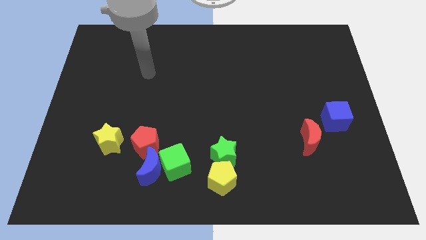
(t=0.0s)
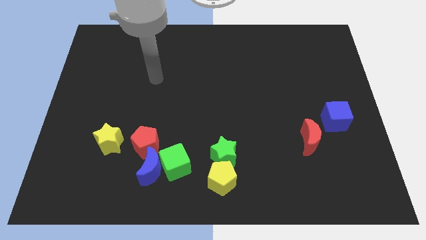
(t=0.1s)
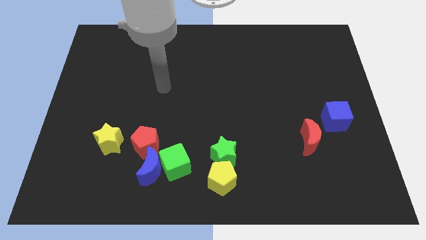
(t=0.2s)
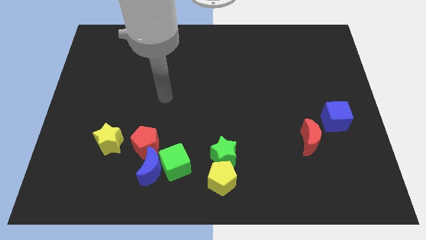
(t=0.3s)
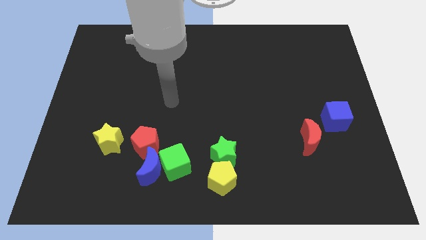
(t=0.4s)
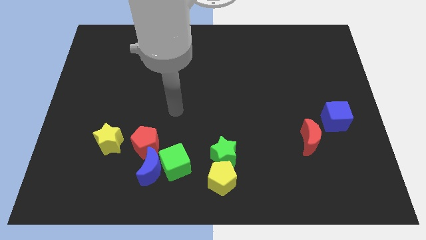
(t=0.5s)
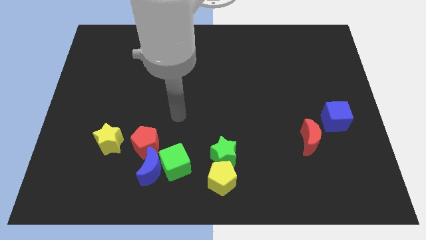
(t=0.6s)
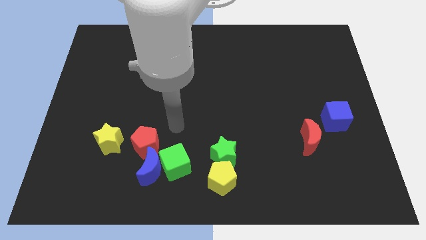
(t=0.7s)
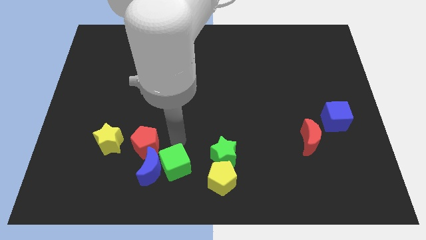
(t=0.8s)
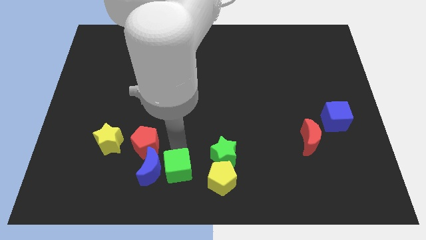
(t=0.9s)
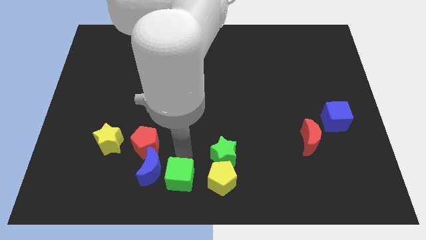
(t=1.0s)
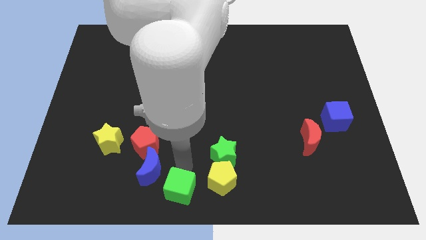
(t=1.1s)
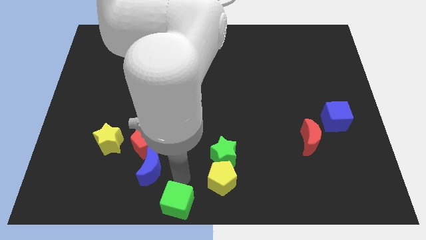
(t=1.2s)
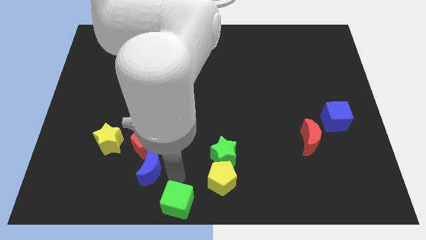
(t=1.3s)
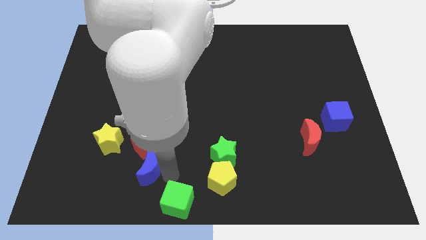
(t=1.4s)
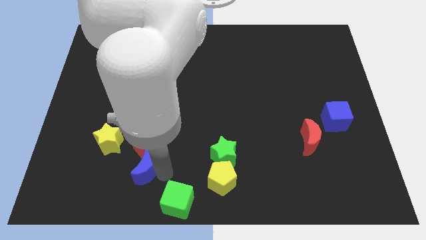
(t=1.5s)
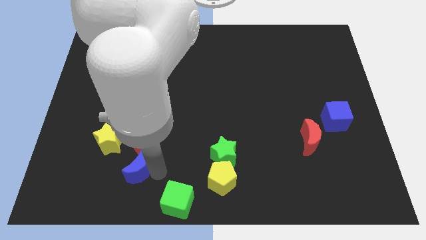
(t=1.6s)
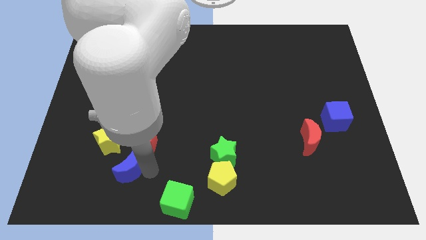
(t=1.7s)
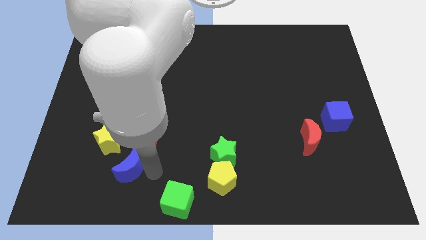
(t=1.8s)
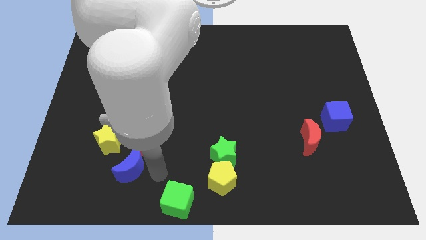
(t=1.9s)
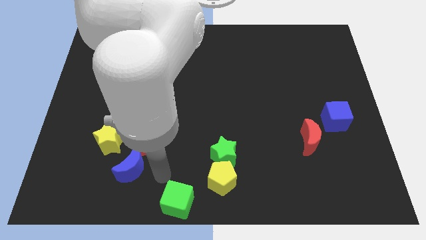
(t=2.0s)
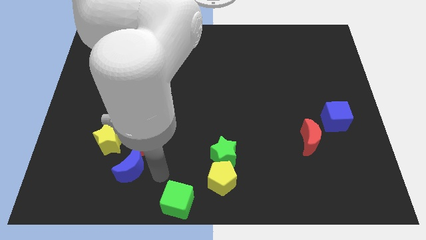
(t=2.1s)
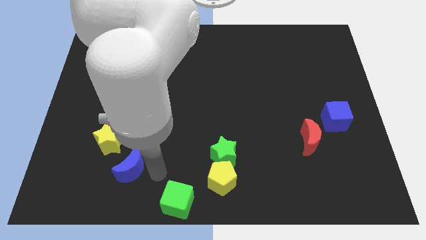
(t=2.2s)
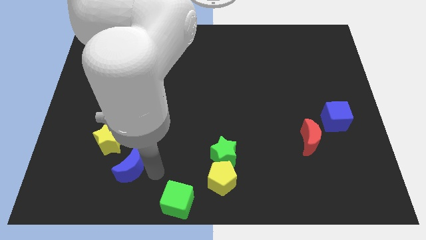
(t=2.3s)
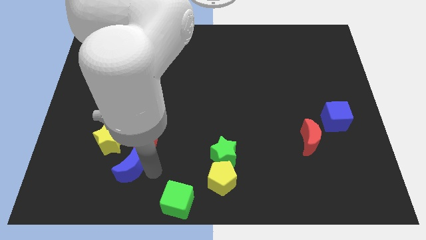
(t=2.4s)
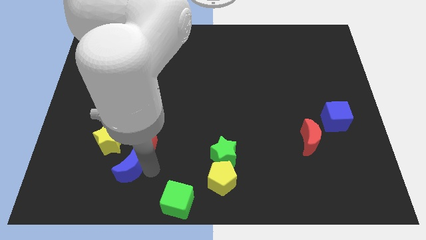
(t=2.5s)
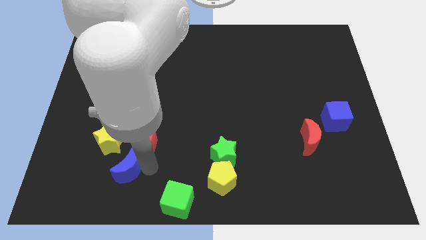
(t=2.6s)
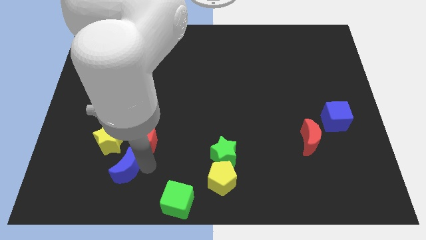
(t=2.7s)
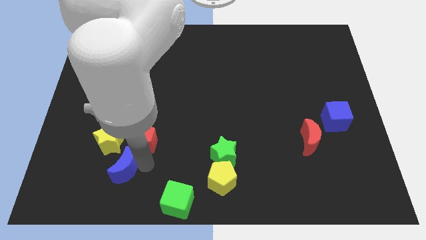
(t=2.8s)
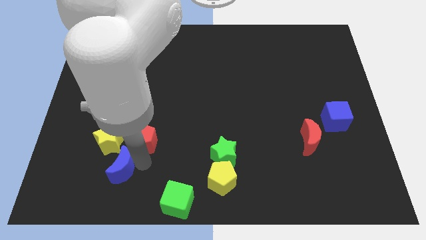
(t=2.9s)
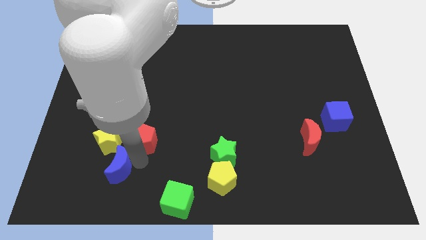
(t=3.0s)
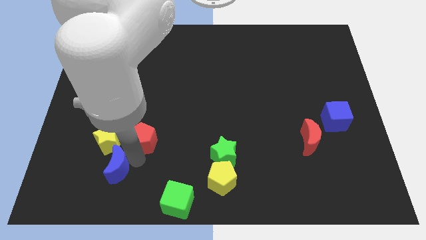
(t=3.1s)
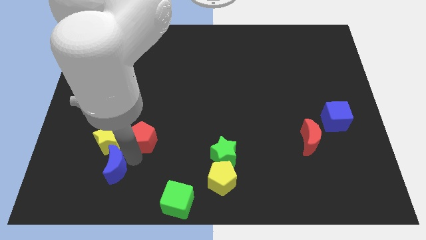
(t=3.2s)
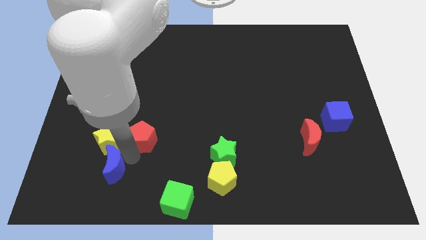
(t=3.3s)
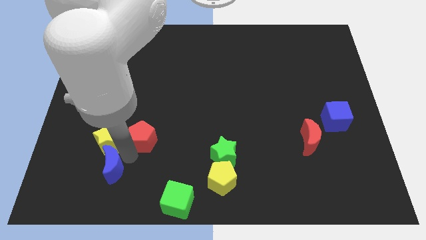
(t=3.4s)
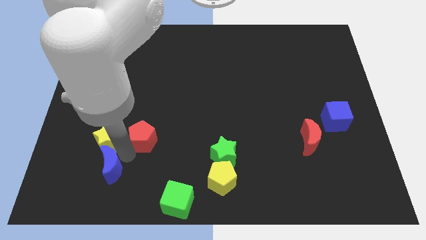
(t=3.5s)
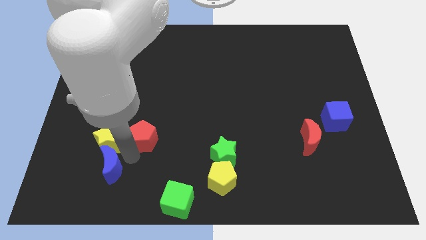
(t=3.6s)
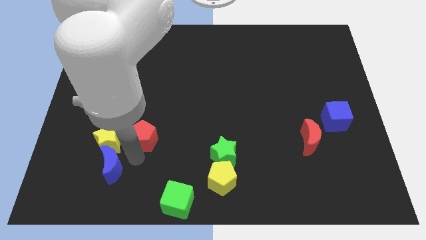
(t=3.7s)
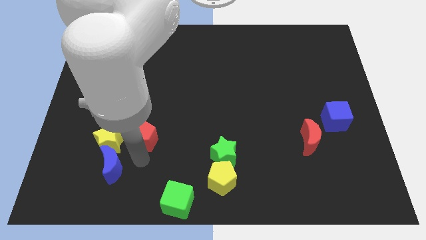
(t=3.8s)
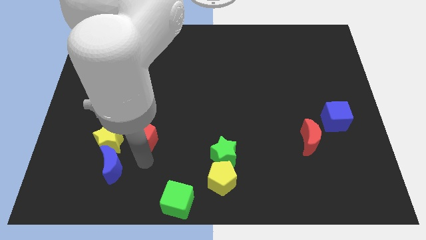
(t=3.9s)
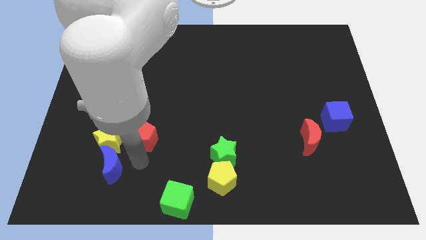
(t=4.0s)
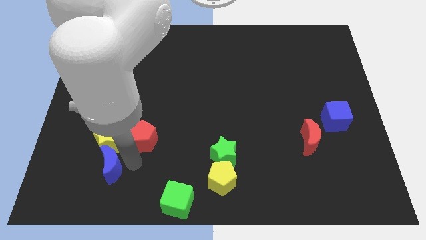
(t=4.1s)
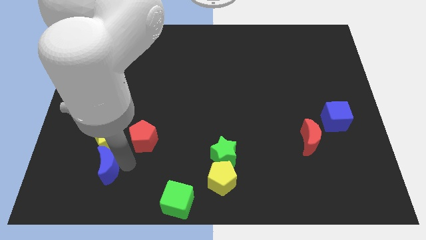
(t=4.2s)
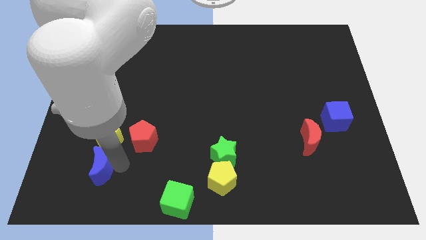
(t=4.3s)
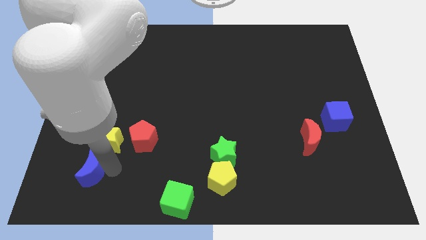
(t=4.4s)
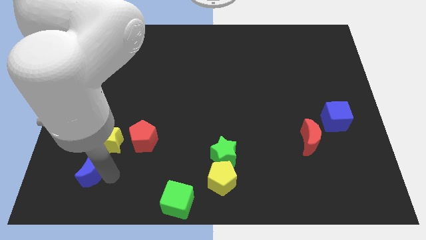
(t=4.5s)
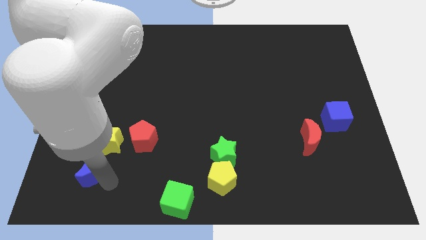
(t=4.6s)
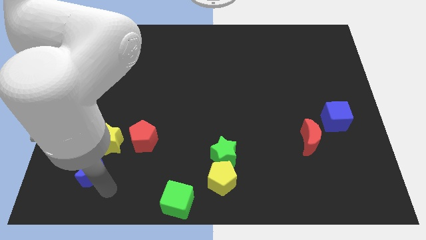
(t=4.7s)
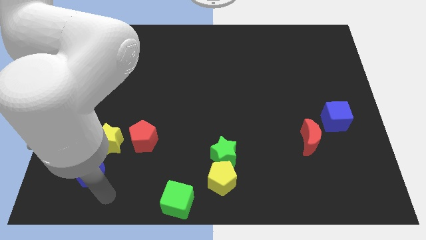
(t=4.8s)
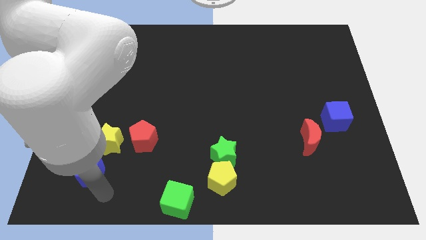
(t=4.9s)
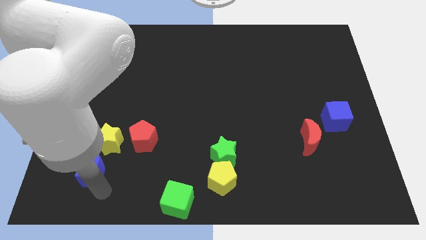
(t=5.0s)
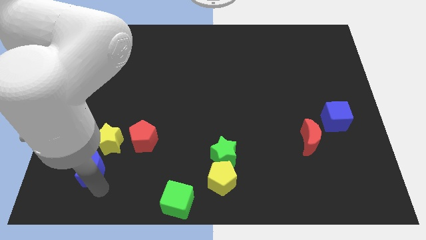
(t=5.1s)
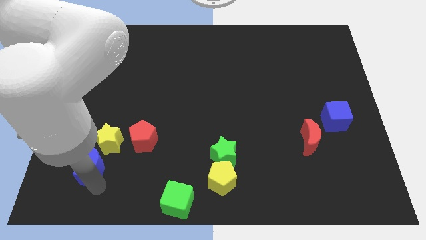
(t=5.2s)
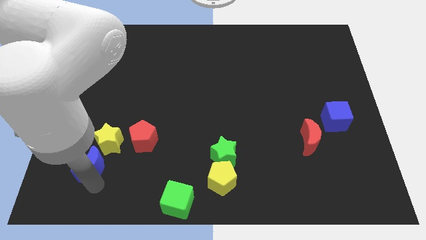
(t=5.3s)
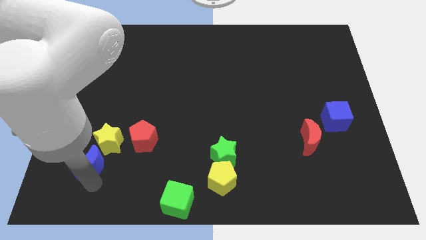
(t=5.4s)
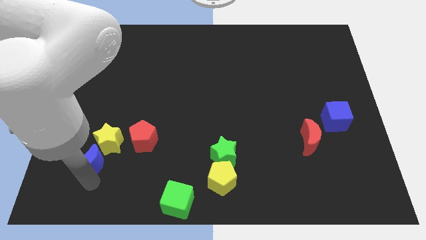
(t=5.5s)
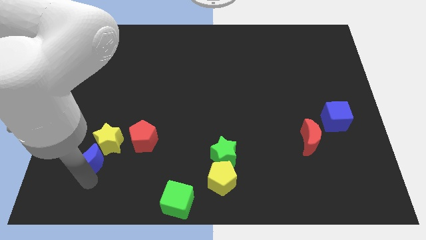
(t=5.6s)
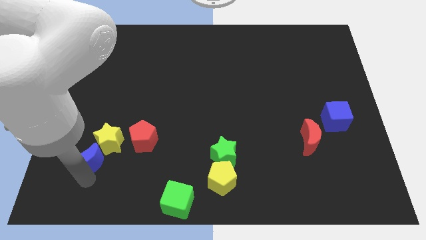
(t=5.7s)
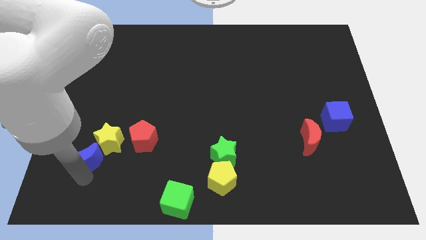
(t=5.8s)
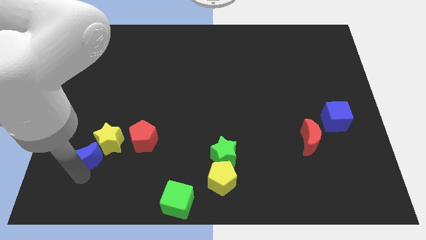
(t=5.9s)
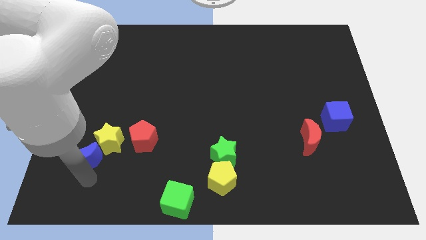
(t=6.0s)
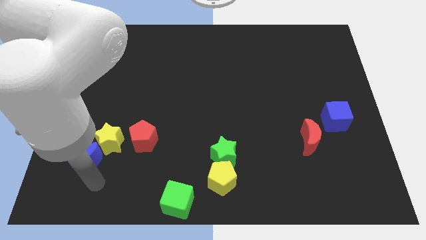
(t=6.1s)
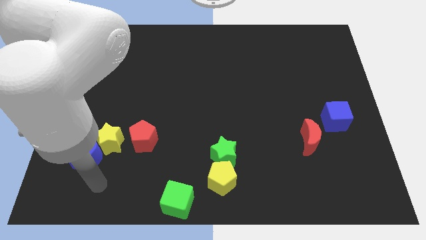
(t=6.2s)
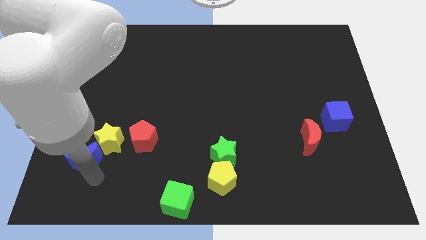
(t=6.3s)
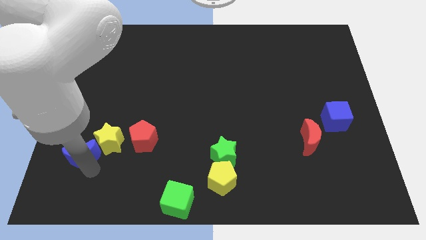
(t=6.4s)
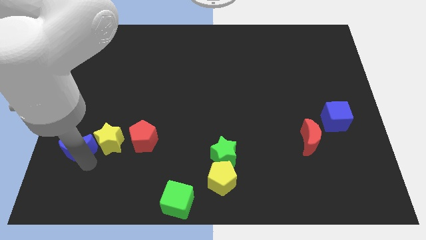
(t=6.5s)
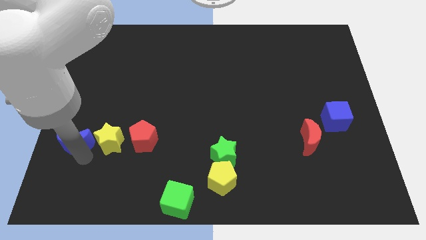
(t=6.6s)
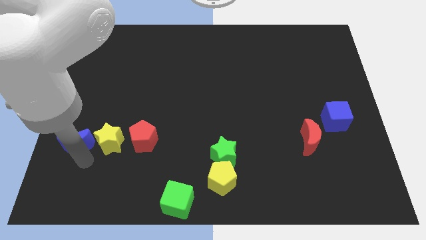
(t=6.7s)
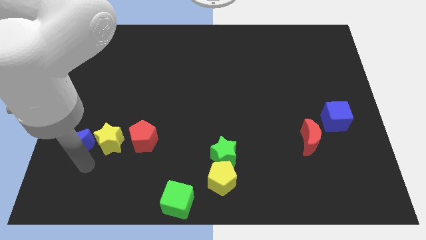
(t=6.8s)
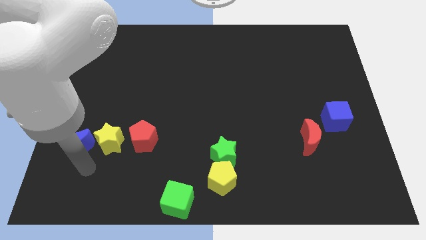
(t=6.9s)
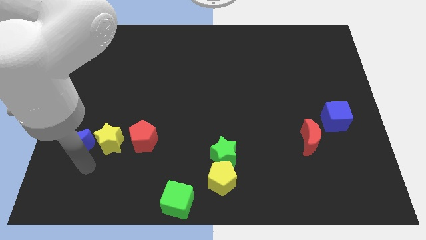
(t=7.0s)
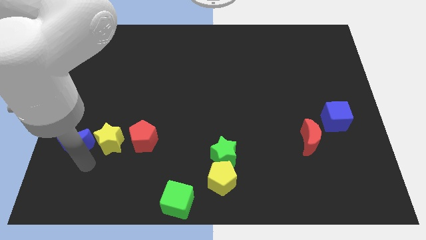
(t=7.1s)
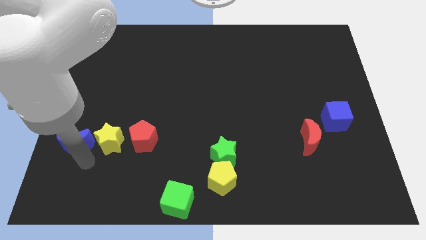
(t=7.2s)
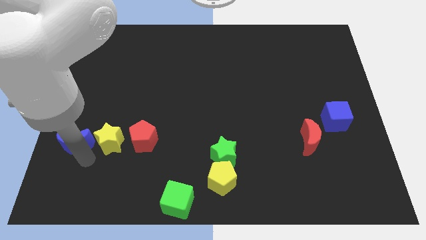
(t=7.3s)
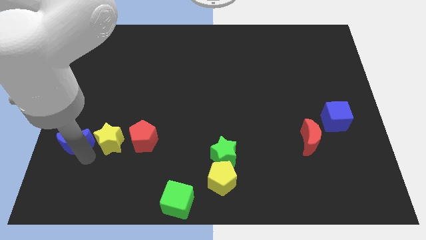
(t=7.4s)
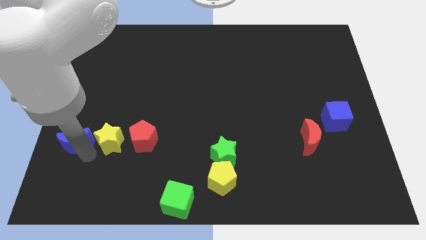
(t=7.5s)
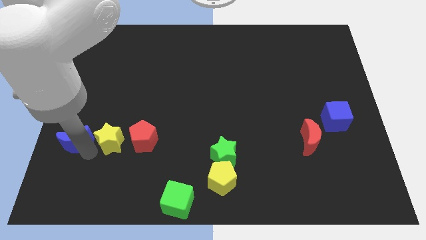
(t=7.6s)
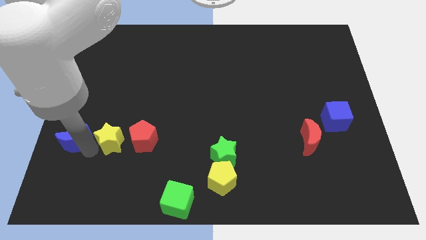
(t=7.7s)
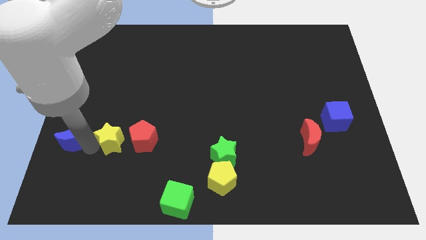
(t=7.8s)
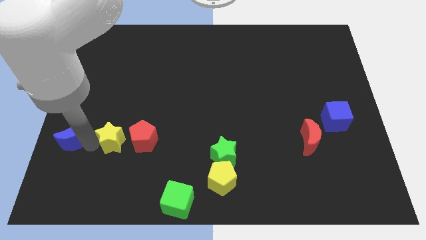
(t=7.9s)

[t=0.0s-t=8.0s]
push the blue moon to the left side
